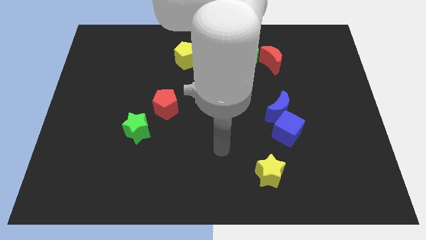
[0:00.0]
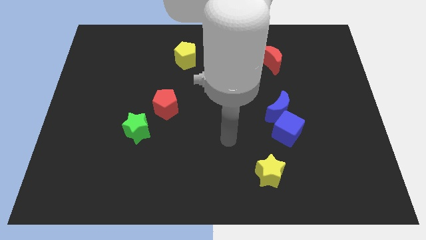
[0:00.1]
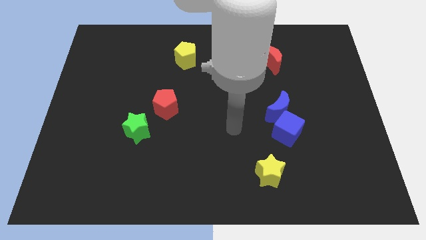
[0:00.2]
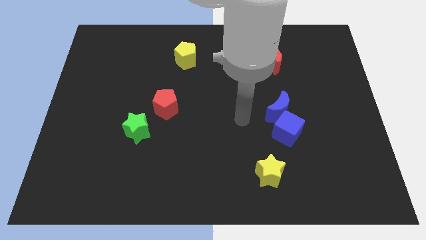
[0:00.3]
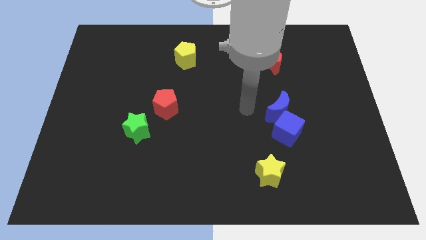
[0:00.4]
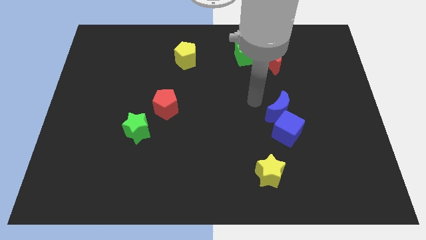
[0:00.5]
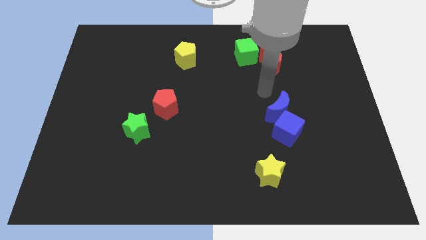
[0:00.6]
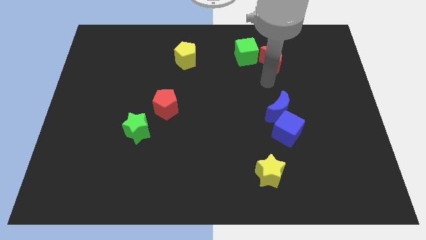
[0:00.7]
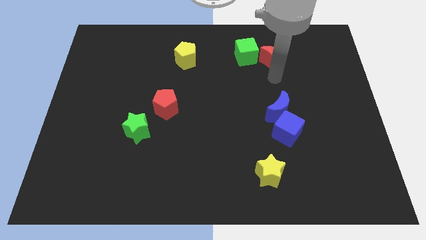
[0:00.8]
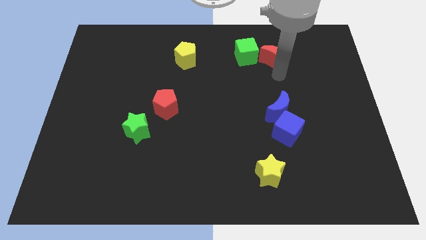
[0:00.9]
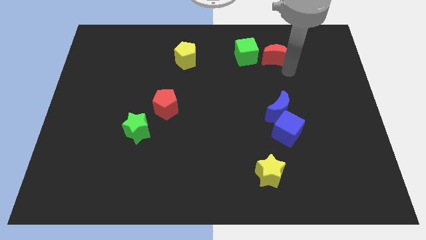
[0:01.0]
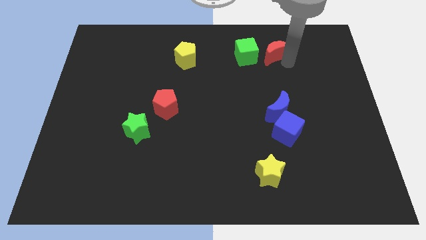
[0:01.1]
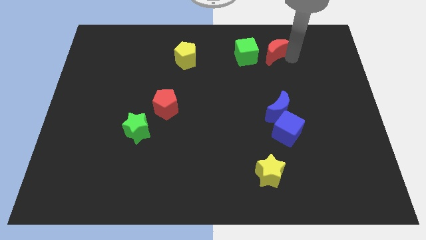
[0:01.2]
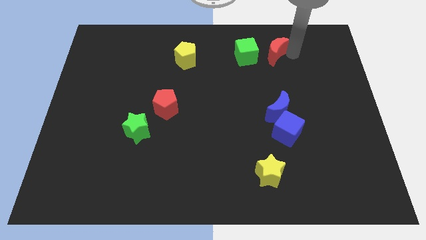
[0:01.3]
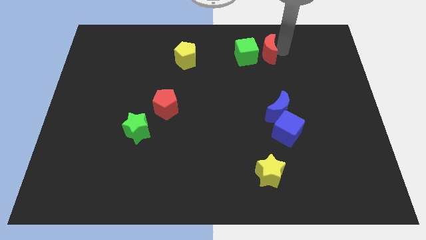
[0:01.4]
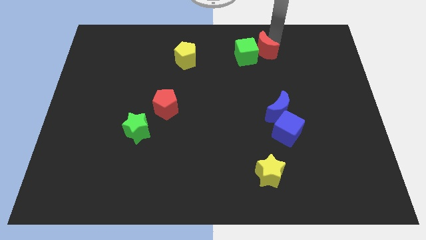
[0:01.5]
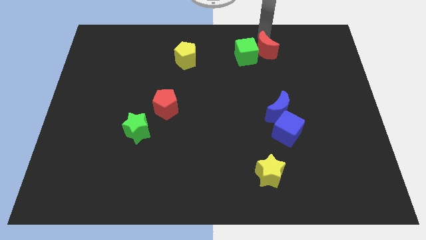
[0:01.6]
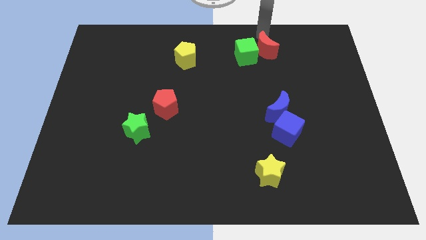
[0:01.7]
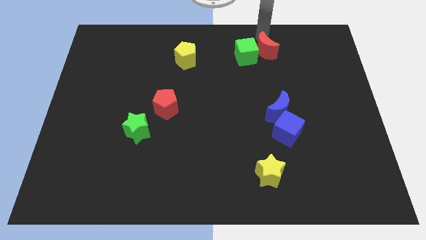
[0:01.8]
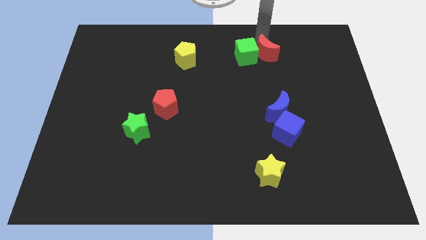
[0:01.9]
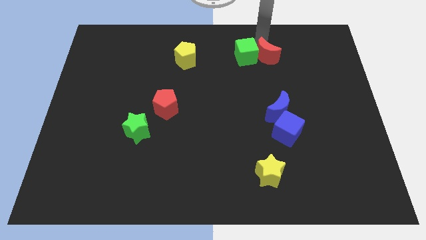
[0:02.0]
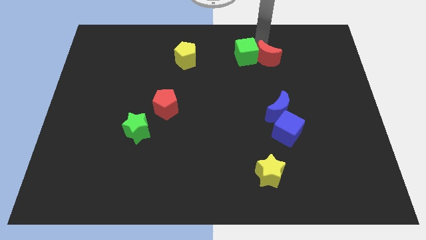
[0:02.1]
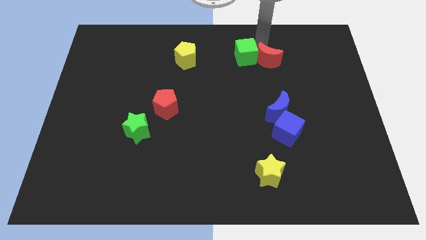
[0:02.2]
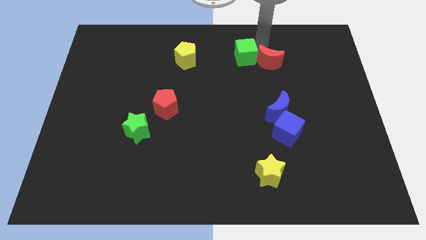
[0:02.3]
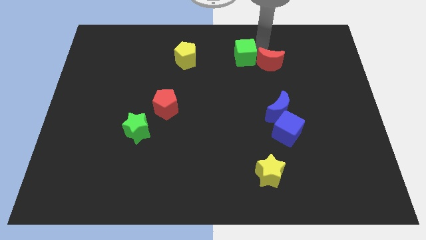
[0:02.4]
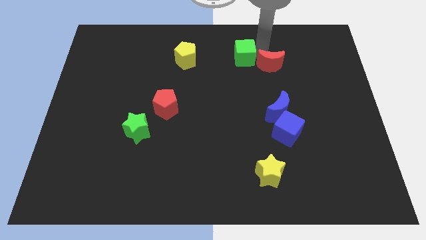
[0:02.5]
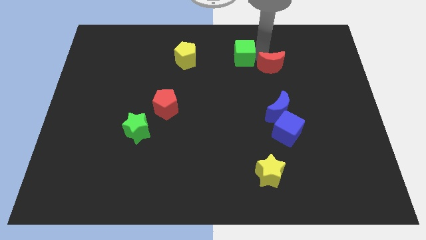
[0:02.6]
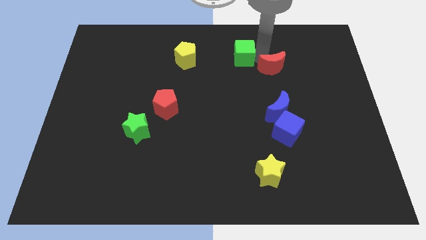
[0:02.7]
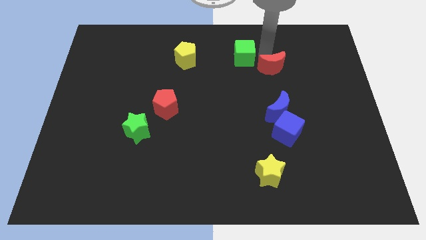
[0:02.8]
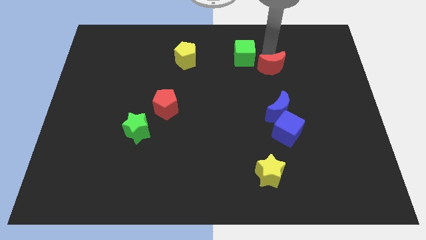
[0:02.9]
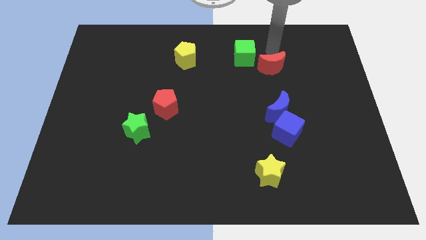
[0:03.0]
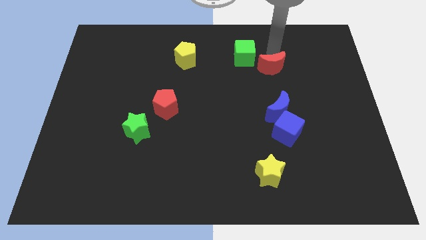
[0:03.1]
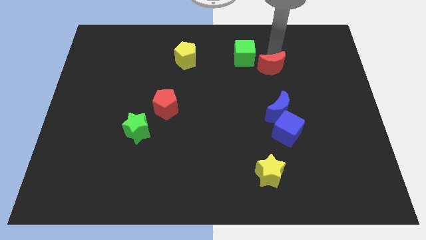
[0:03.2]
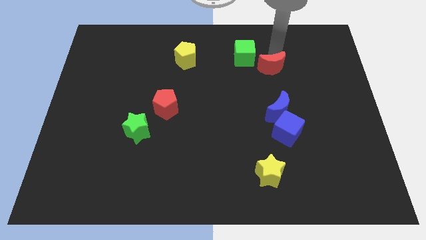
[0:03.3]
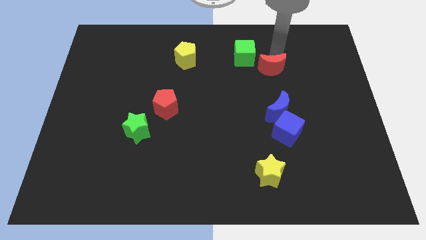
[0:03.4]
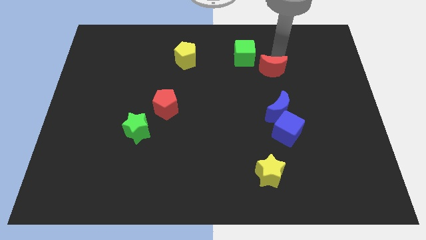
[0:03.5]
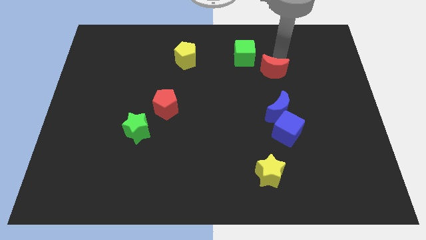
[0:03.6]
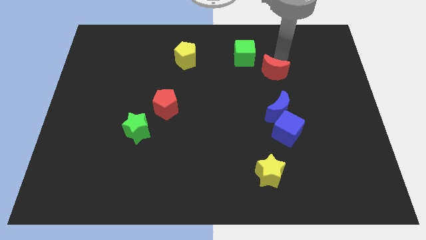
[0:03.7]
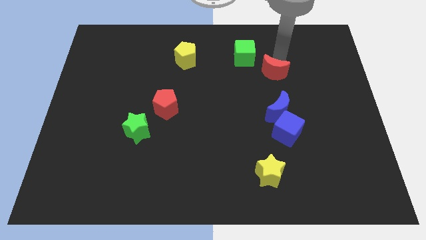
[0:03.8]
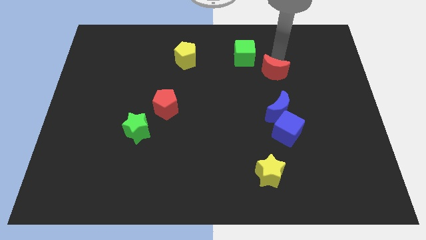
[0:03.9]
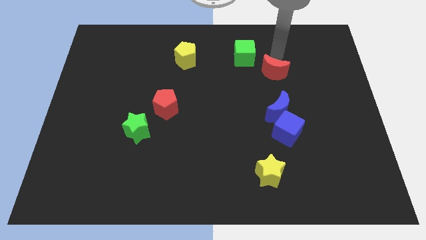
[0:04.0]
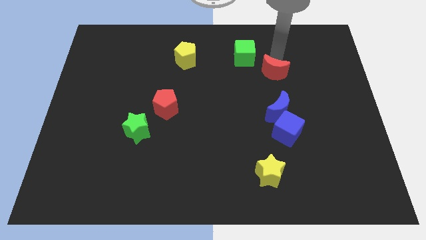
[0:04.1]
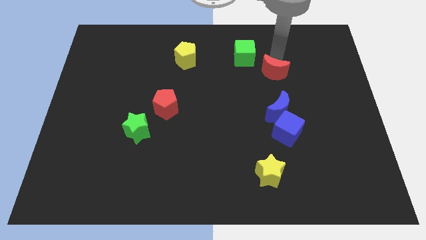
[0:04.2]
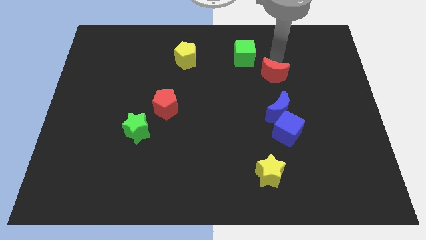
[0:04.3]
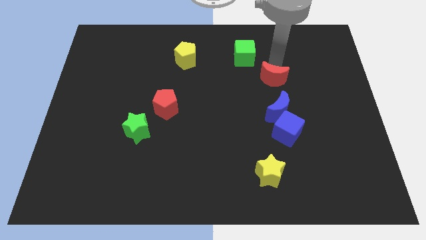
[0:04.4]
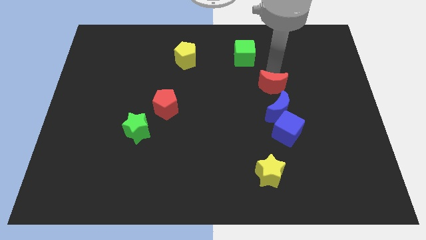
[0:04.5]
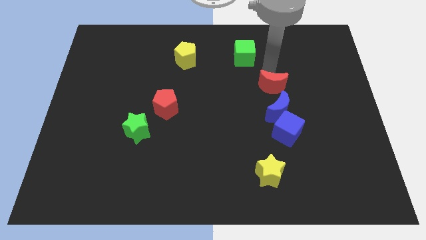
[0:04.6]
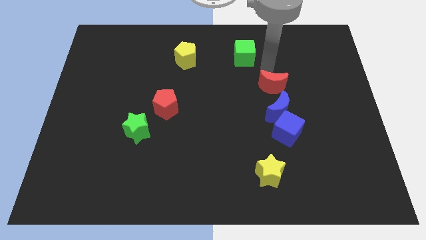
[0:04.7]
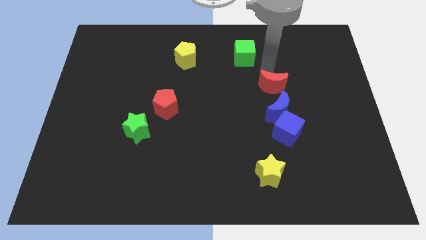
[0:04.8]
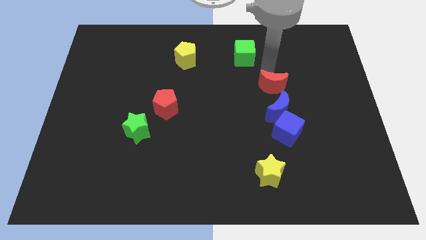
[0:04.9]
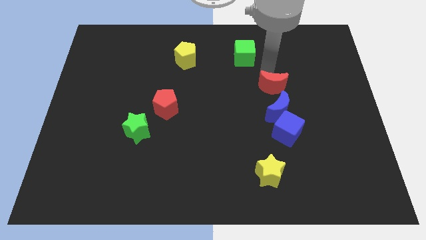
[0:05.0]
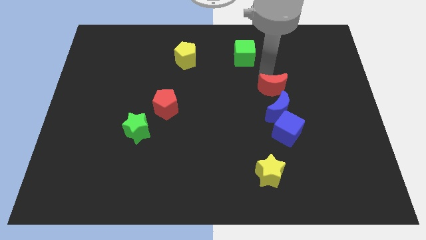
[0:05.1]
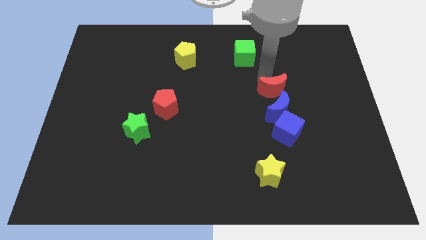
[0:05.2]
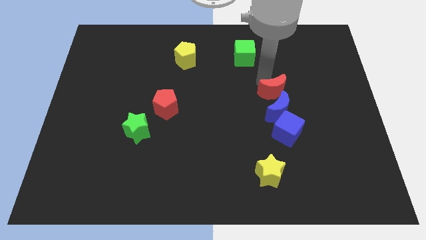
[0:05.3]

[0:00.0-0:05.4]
slide the red moon close to the blue moon

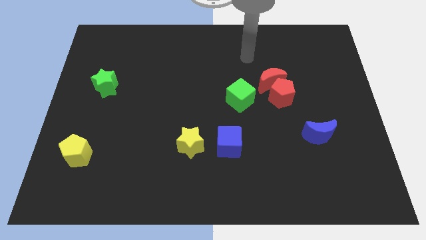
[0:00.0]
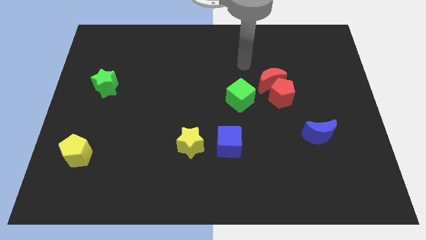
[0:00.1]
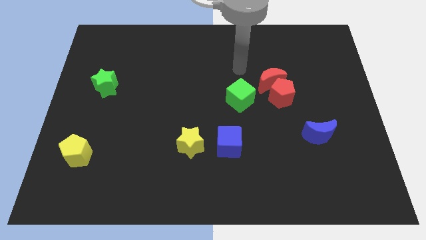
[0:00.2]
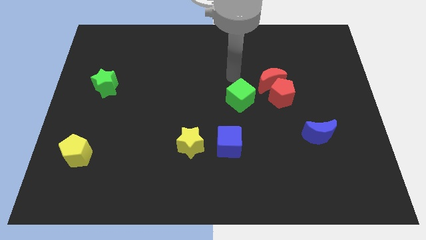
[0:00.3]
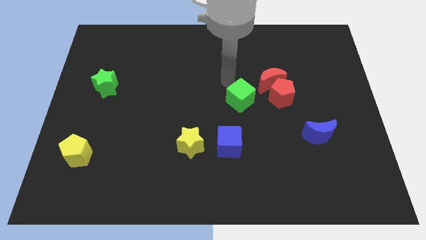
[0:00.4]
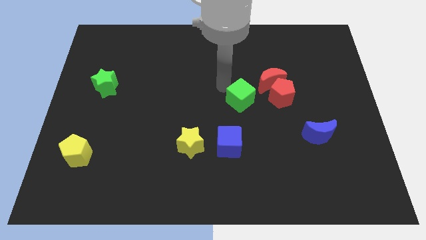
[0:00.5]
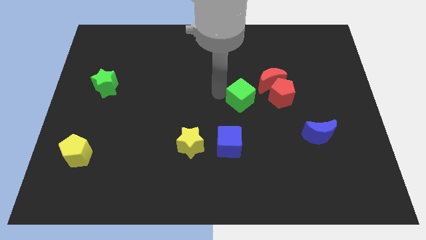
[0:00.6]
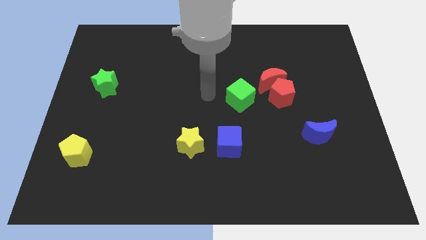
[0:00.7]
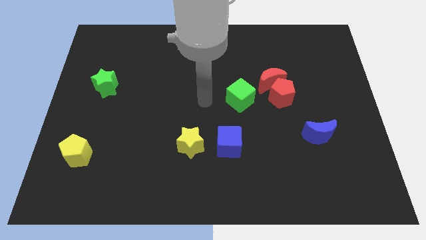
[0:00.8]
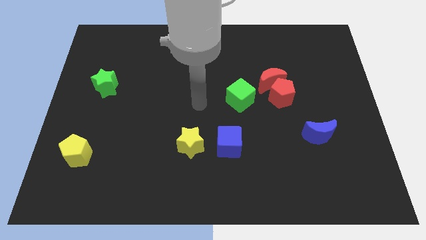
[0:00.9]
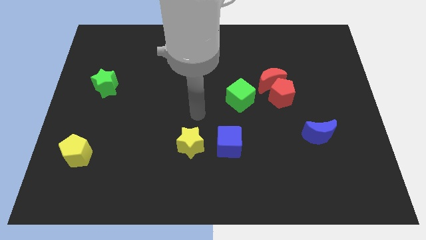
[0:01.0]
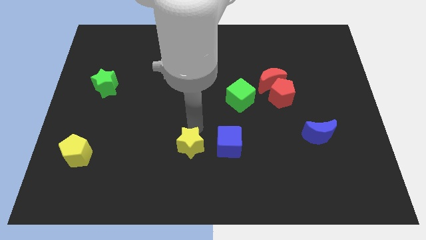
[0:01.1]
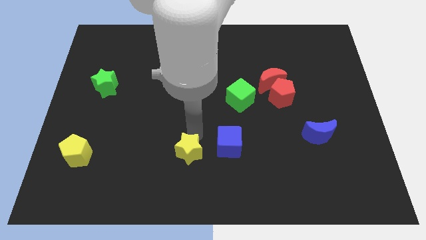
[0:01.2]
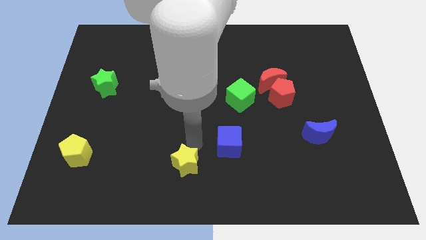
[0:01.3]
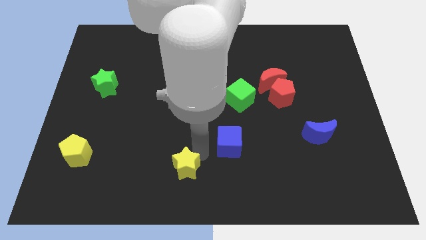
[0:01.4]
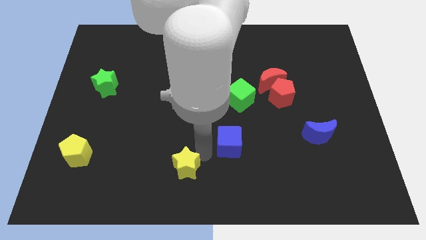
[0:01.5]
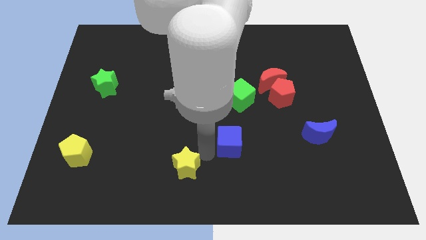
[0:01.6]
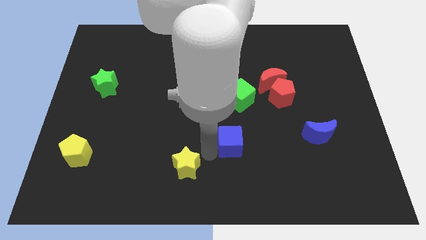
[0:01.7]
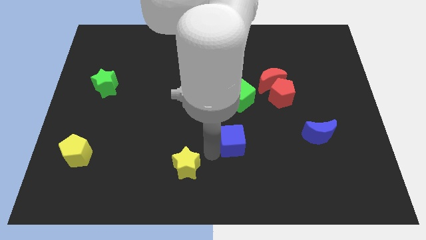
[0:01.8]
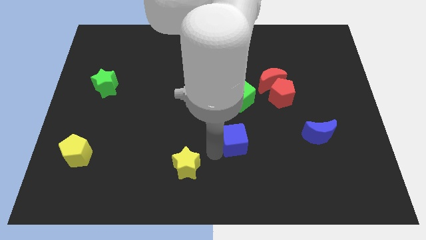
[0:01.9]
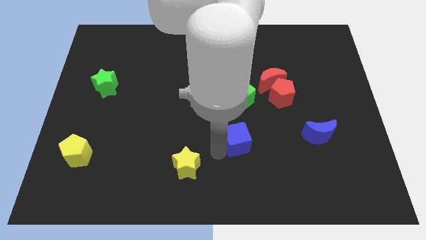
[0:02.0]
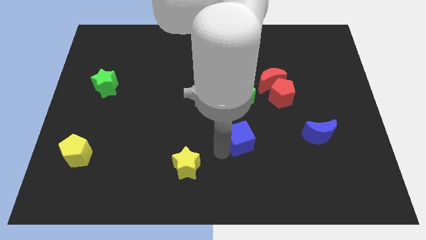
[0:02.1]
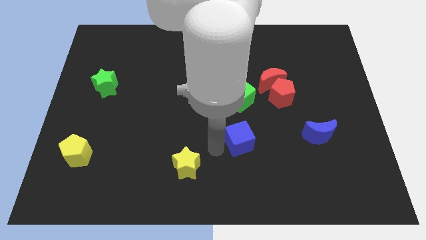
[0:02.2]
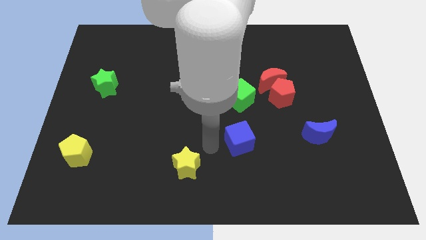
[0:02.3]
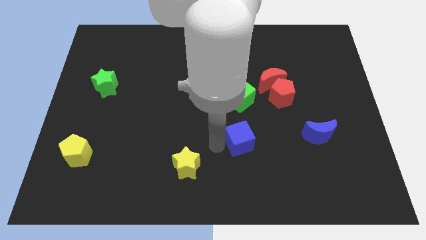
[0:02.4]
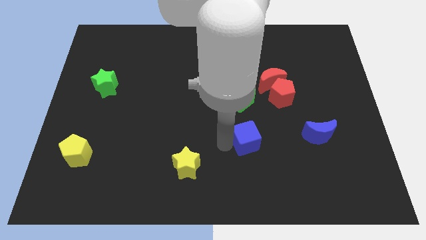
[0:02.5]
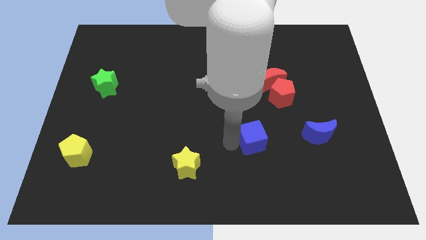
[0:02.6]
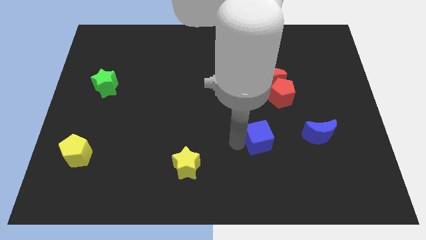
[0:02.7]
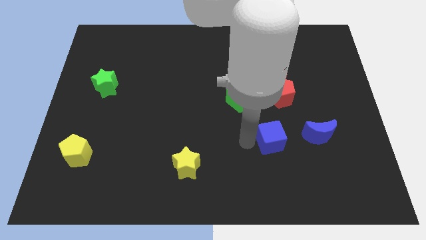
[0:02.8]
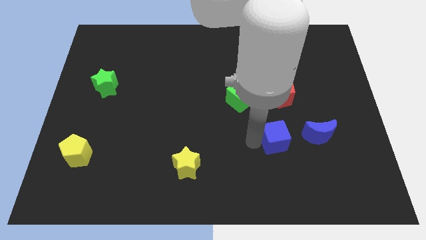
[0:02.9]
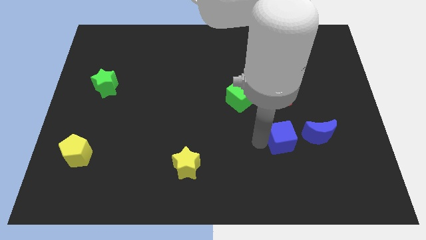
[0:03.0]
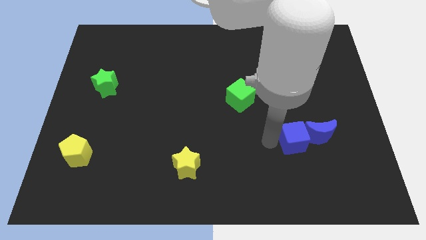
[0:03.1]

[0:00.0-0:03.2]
slide the blue cube to the blue moon
